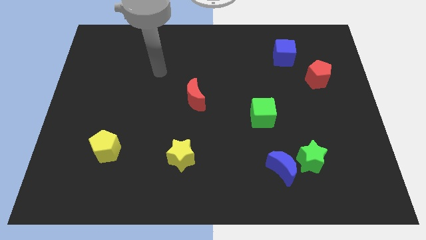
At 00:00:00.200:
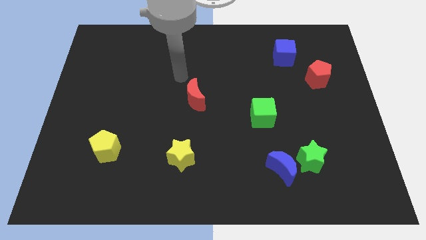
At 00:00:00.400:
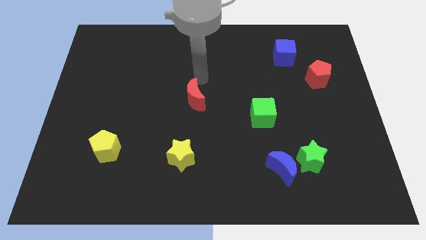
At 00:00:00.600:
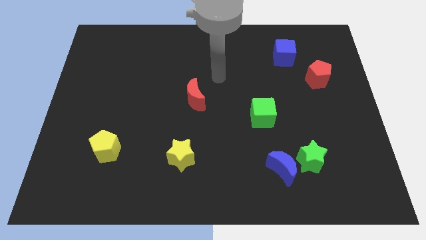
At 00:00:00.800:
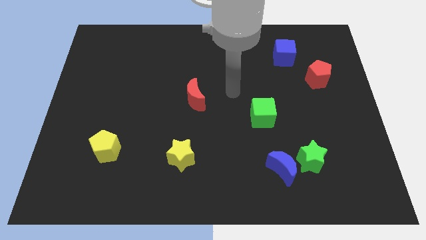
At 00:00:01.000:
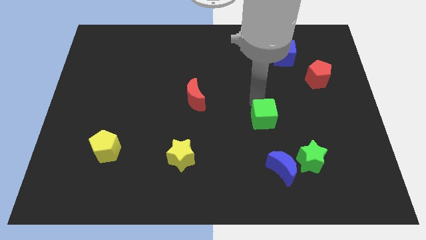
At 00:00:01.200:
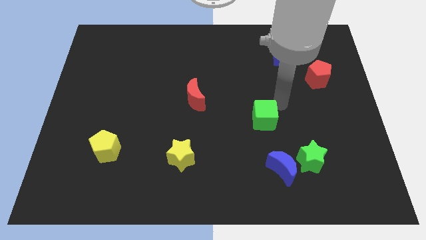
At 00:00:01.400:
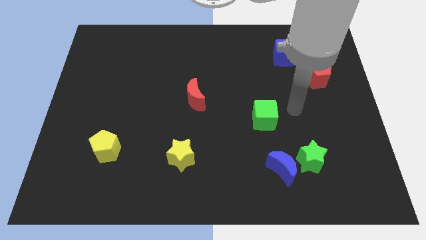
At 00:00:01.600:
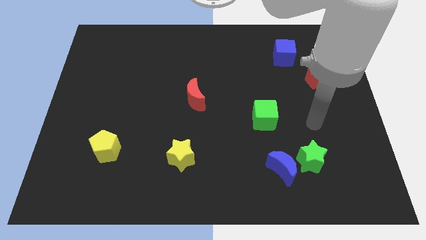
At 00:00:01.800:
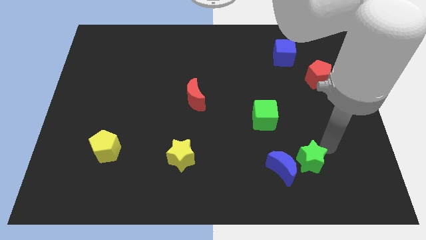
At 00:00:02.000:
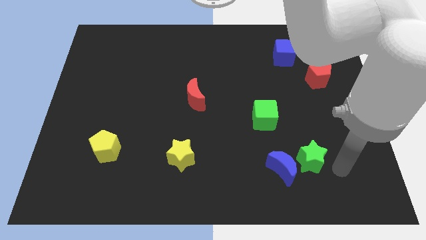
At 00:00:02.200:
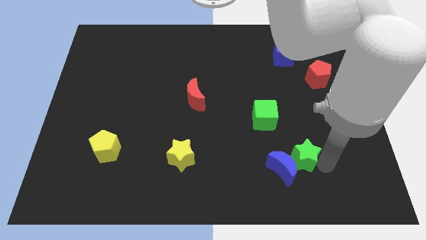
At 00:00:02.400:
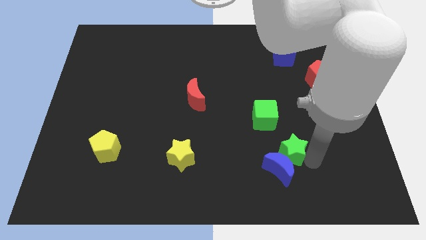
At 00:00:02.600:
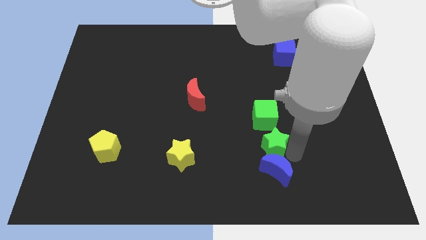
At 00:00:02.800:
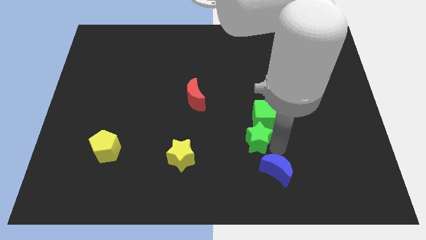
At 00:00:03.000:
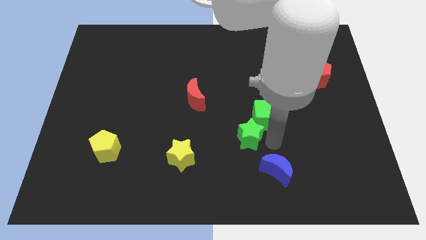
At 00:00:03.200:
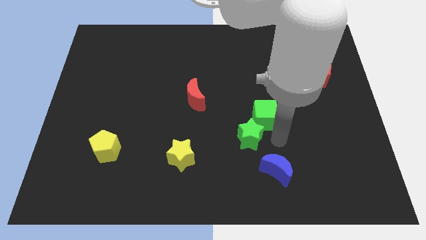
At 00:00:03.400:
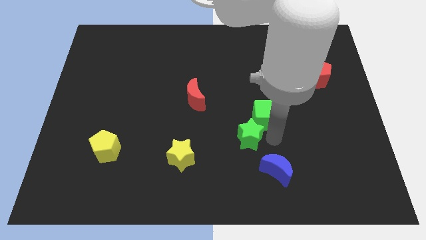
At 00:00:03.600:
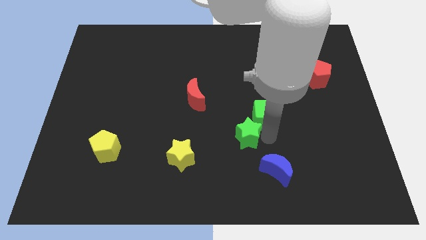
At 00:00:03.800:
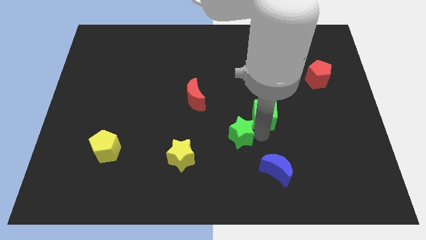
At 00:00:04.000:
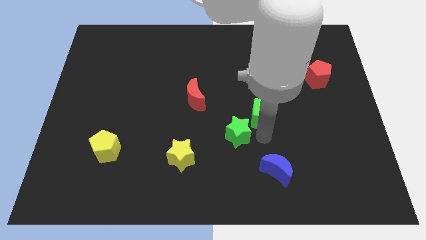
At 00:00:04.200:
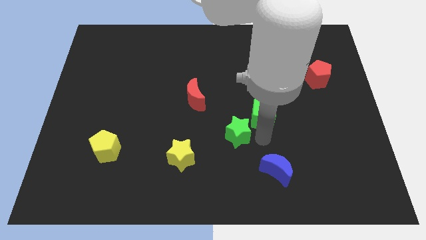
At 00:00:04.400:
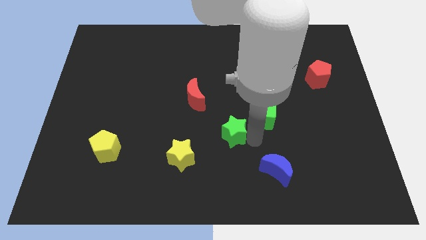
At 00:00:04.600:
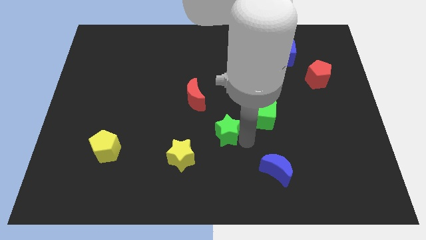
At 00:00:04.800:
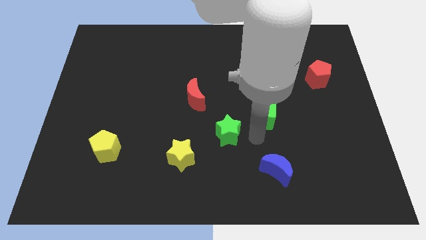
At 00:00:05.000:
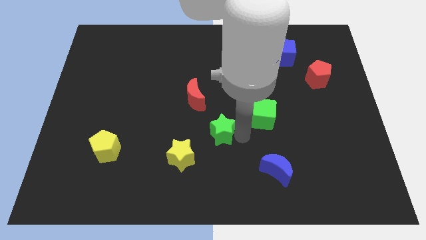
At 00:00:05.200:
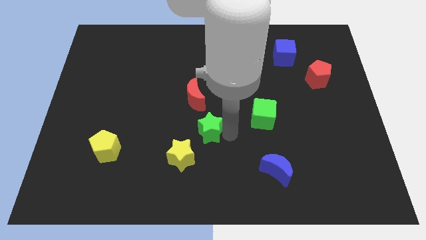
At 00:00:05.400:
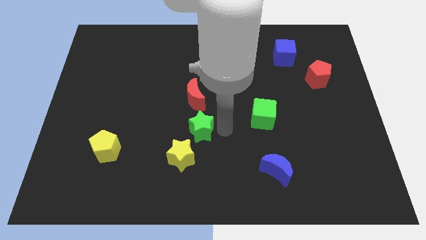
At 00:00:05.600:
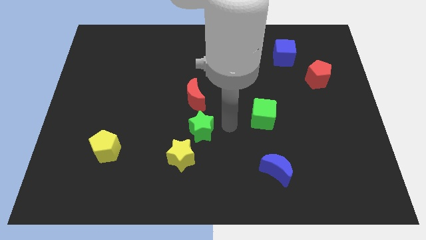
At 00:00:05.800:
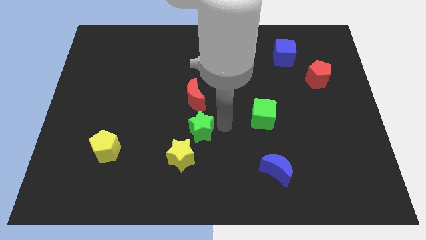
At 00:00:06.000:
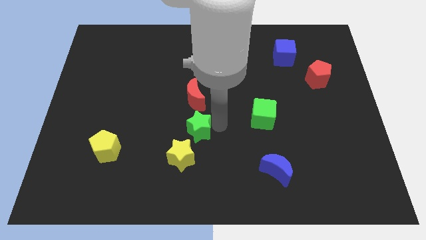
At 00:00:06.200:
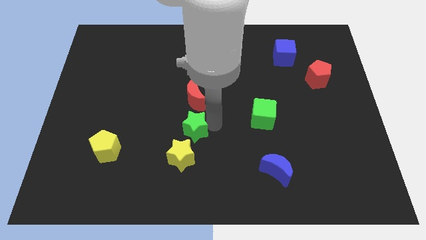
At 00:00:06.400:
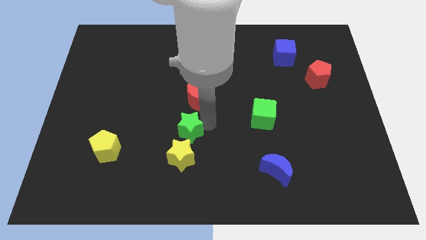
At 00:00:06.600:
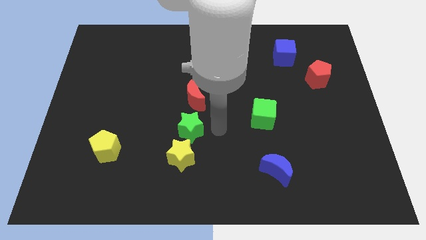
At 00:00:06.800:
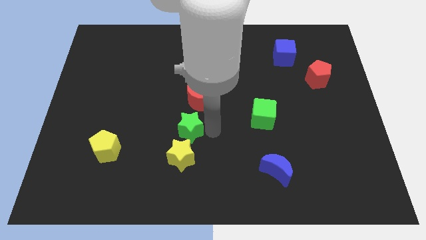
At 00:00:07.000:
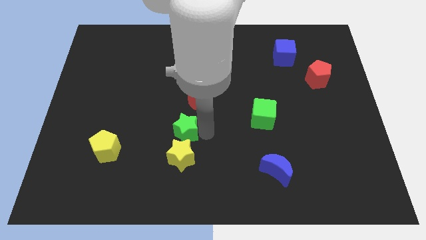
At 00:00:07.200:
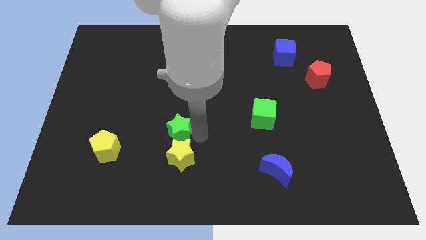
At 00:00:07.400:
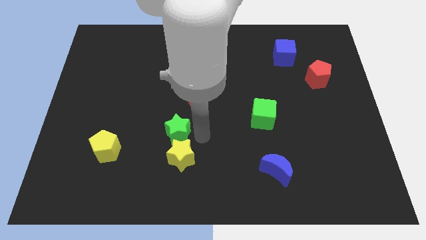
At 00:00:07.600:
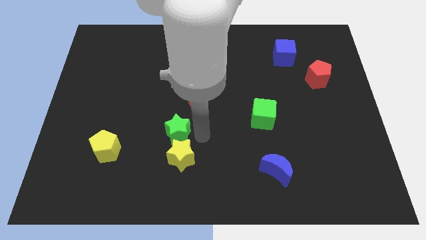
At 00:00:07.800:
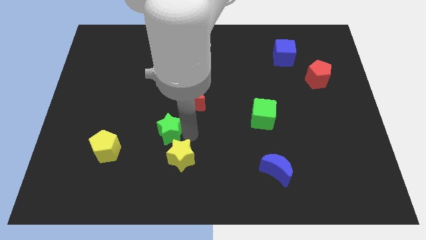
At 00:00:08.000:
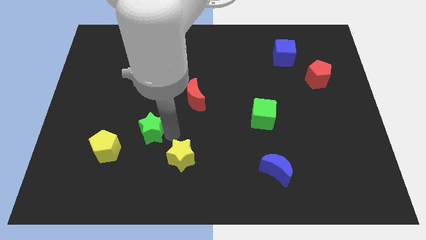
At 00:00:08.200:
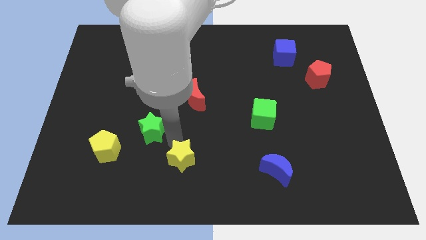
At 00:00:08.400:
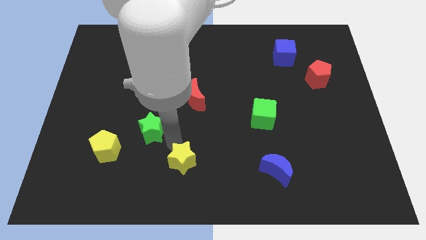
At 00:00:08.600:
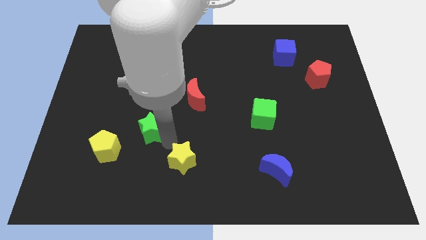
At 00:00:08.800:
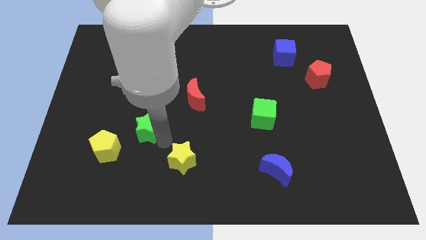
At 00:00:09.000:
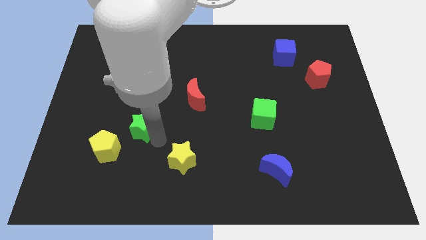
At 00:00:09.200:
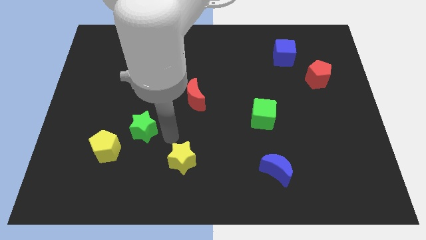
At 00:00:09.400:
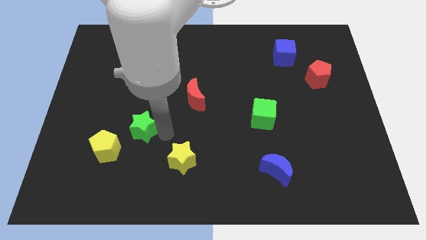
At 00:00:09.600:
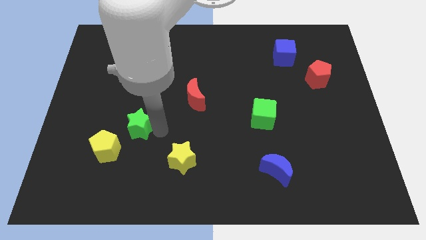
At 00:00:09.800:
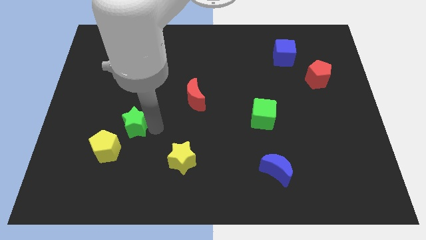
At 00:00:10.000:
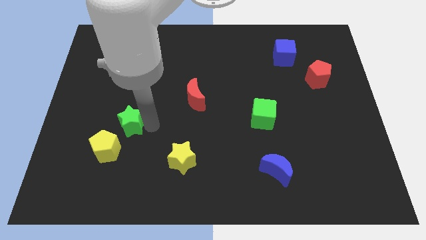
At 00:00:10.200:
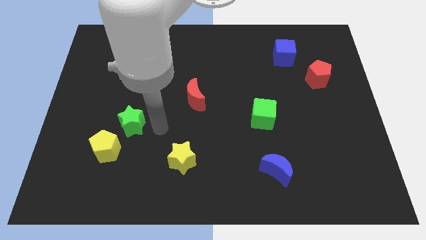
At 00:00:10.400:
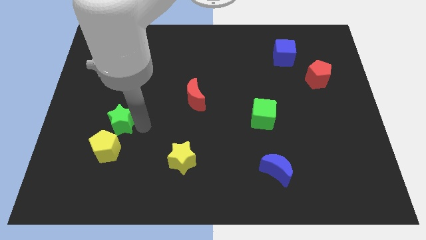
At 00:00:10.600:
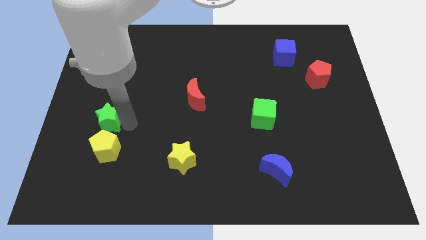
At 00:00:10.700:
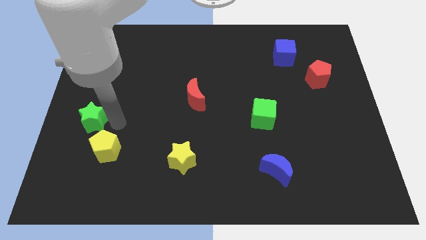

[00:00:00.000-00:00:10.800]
slide the green star to the center left

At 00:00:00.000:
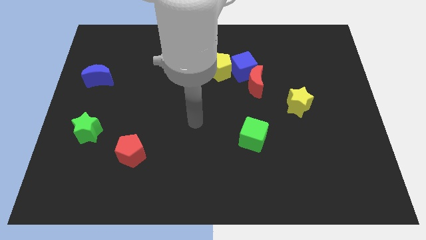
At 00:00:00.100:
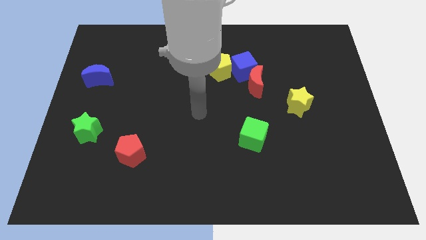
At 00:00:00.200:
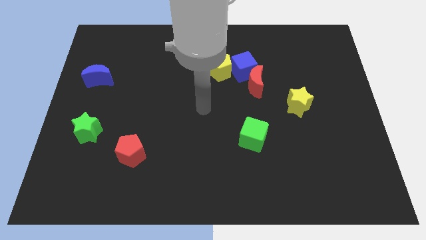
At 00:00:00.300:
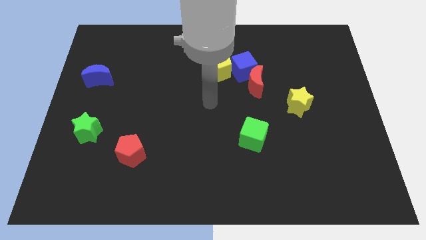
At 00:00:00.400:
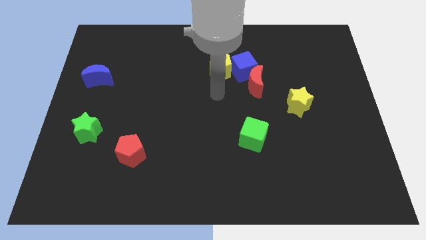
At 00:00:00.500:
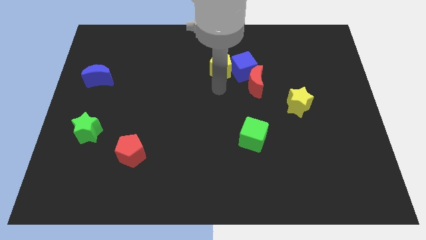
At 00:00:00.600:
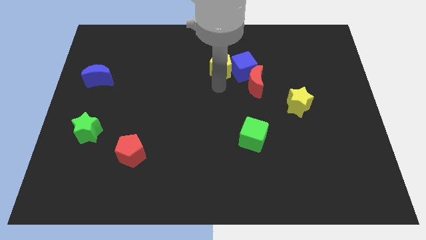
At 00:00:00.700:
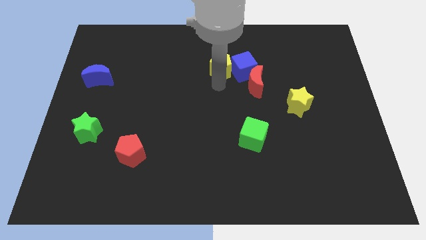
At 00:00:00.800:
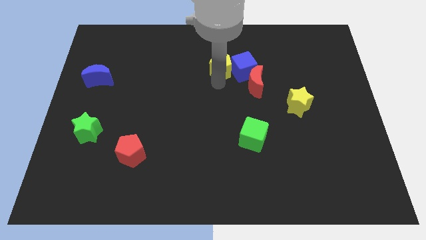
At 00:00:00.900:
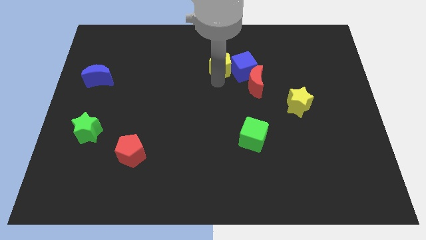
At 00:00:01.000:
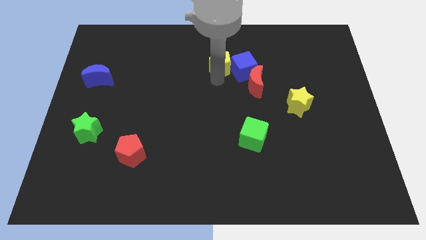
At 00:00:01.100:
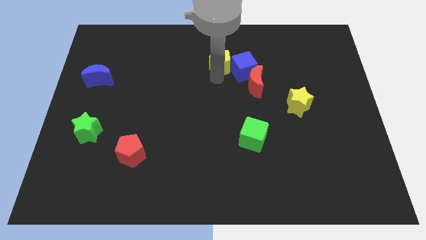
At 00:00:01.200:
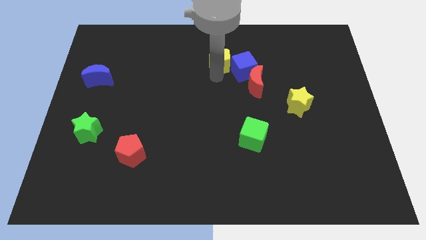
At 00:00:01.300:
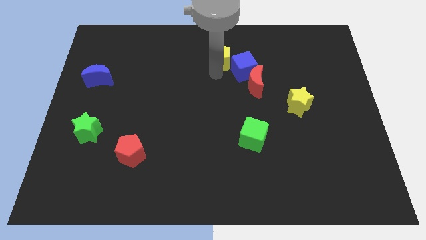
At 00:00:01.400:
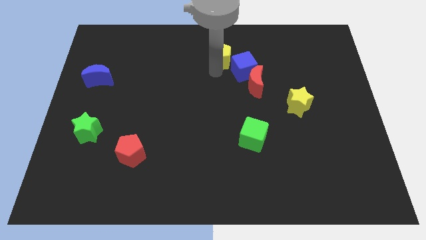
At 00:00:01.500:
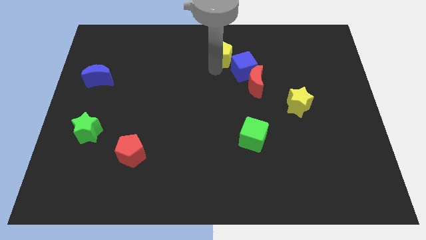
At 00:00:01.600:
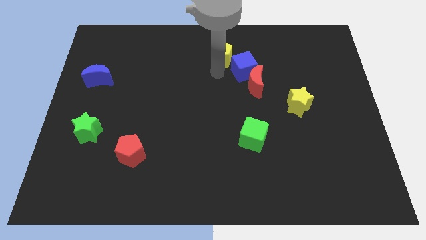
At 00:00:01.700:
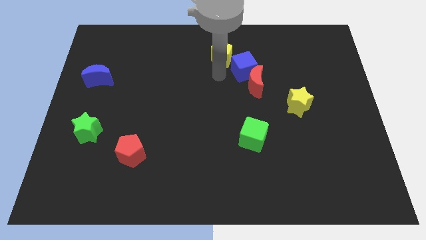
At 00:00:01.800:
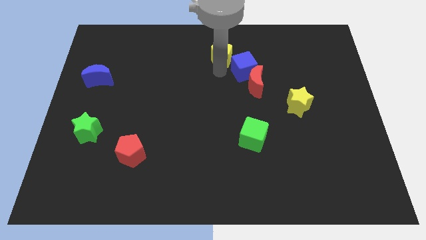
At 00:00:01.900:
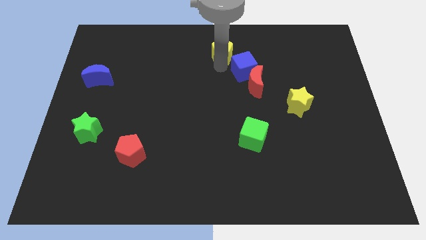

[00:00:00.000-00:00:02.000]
push the yellow pentagon to the top
